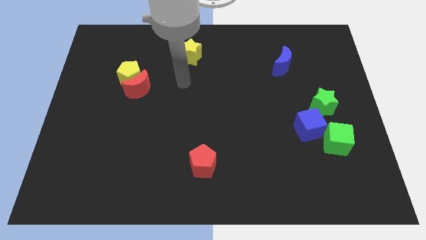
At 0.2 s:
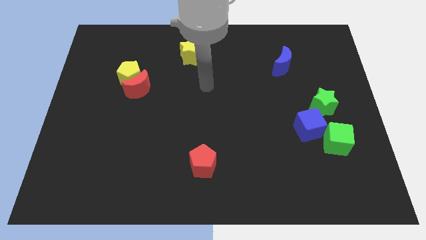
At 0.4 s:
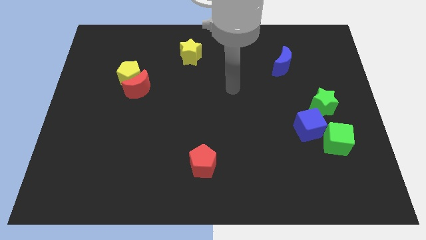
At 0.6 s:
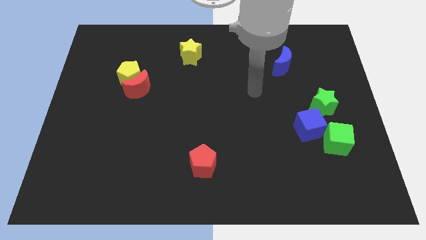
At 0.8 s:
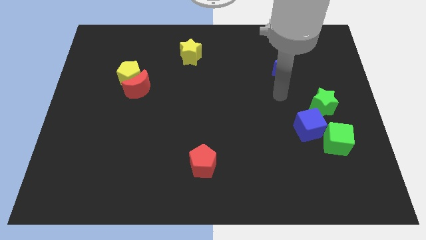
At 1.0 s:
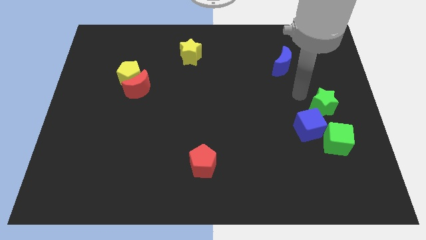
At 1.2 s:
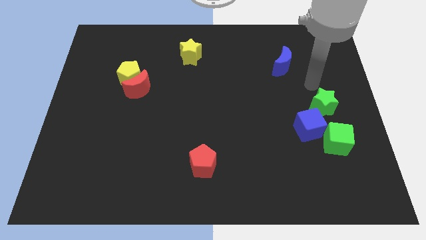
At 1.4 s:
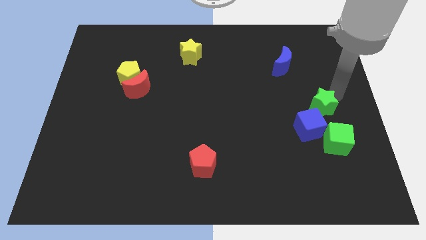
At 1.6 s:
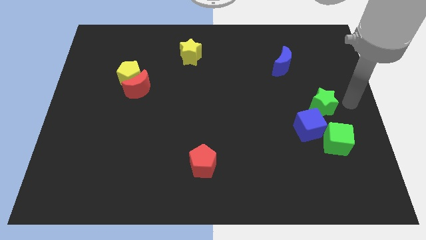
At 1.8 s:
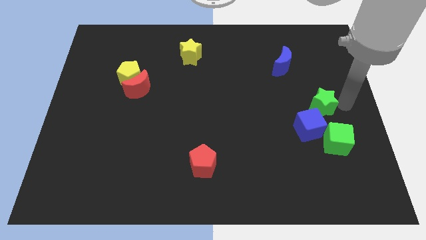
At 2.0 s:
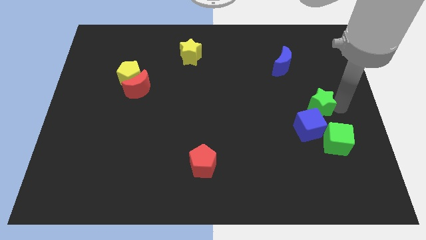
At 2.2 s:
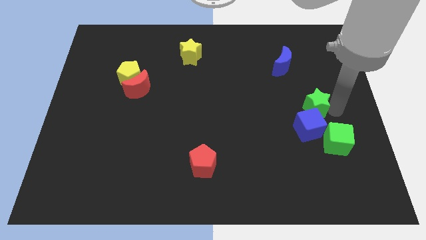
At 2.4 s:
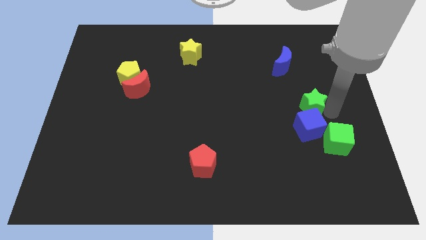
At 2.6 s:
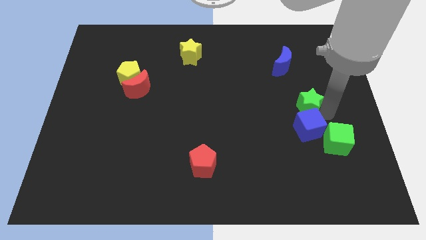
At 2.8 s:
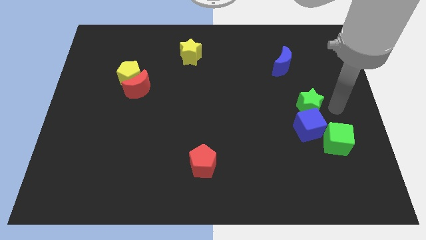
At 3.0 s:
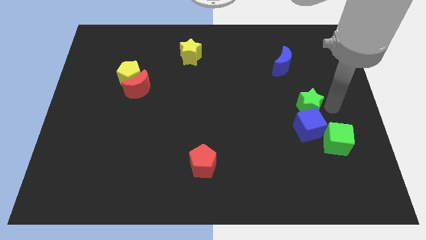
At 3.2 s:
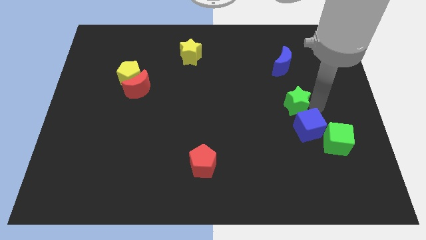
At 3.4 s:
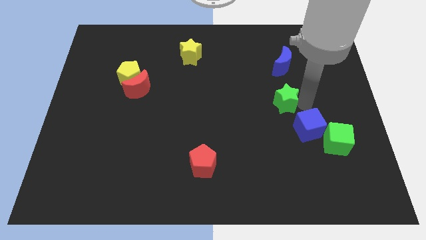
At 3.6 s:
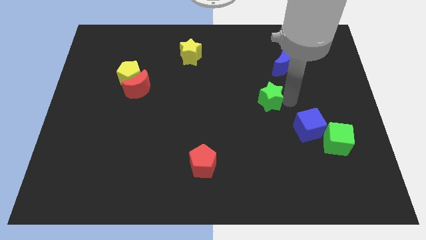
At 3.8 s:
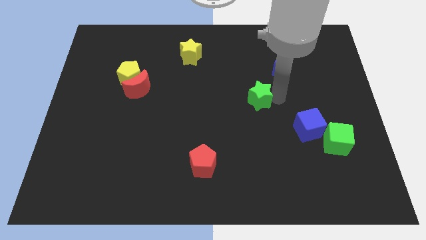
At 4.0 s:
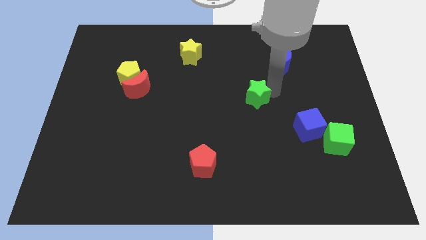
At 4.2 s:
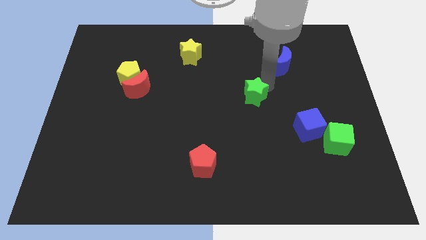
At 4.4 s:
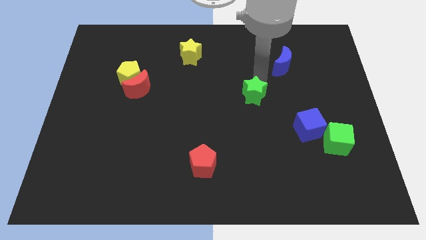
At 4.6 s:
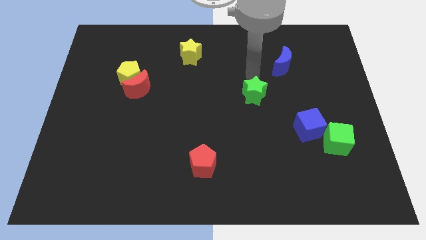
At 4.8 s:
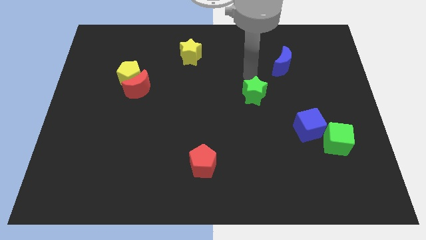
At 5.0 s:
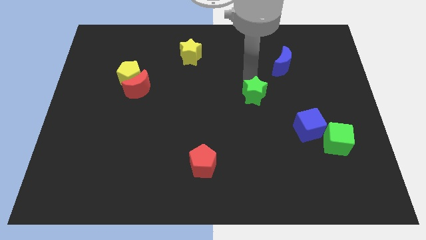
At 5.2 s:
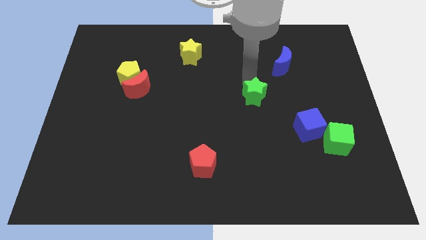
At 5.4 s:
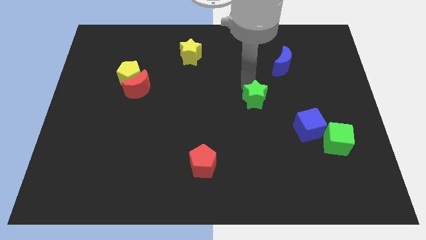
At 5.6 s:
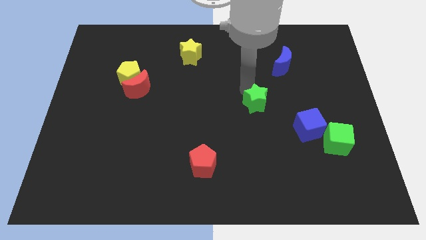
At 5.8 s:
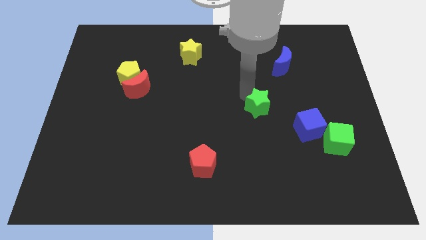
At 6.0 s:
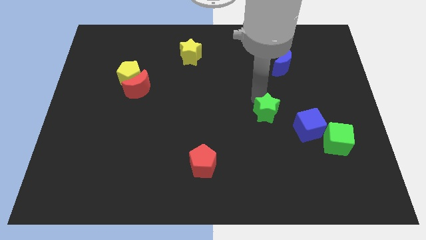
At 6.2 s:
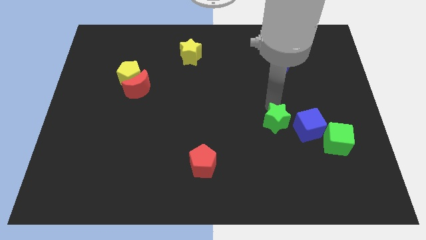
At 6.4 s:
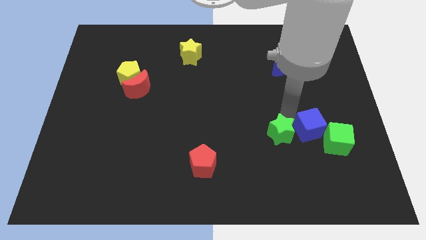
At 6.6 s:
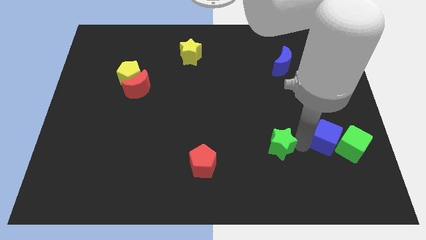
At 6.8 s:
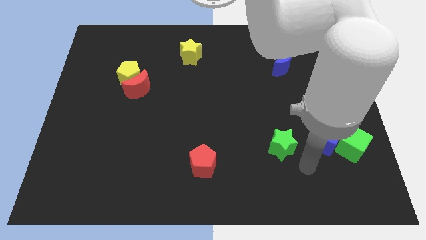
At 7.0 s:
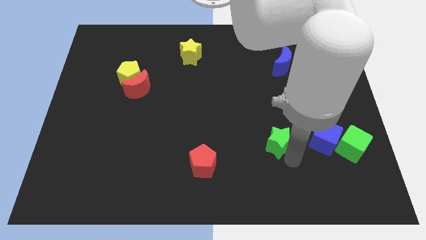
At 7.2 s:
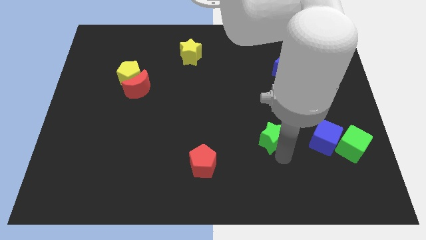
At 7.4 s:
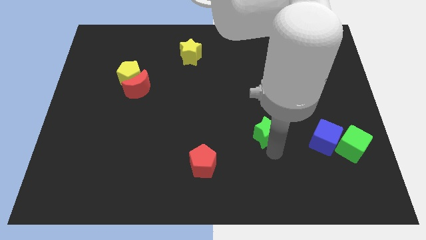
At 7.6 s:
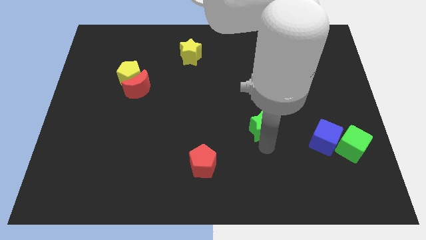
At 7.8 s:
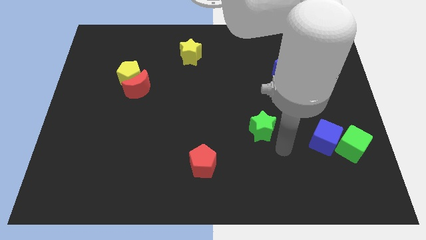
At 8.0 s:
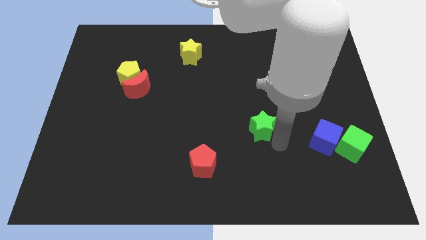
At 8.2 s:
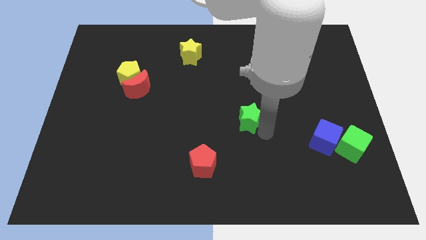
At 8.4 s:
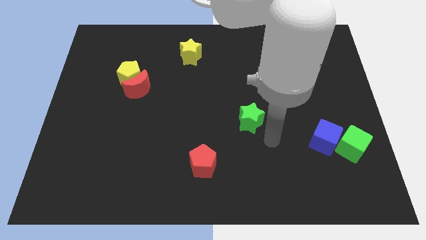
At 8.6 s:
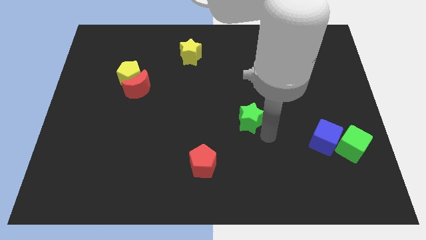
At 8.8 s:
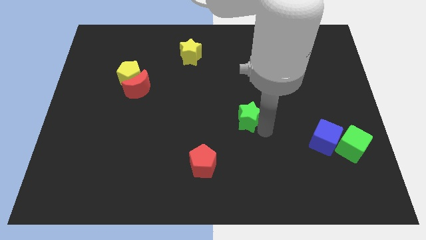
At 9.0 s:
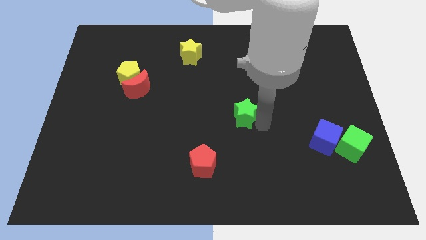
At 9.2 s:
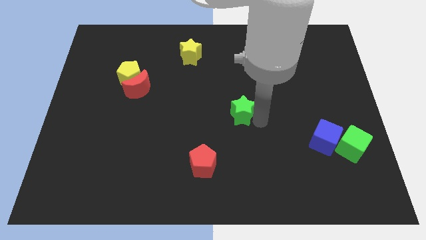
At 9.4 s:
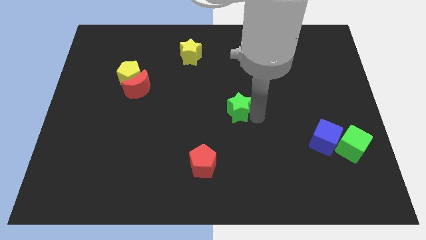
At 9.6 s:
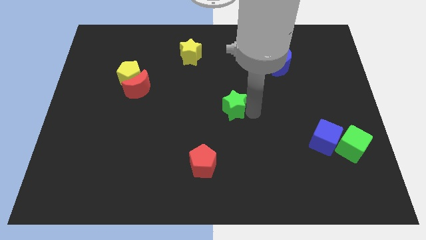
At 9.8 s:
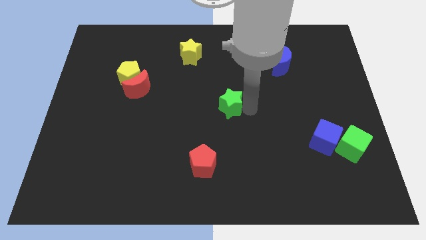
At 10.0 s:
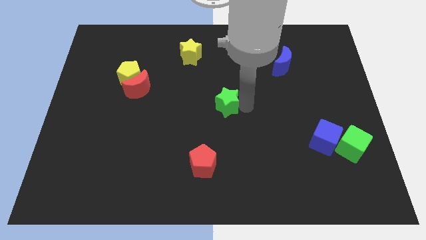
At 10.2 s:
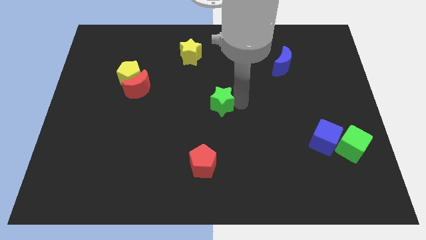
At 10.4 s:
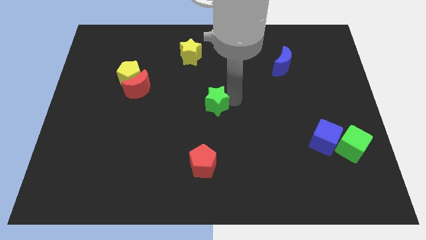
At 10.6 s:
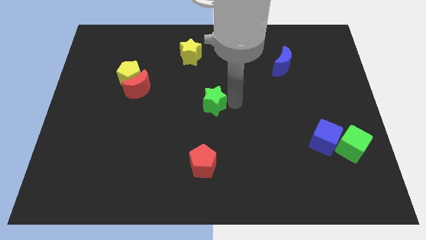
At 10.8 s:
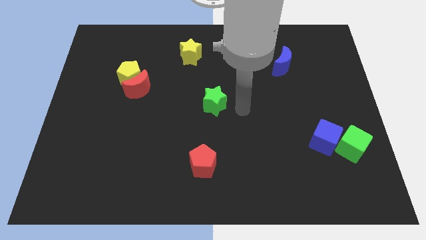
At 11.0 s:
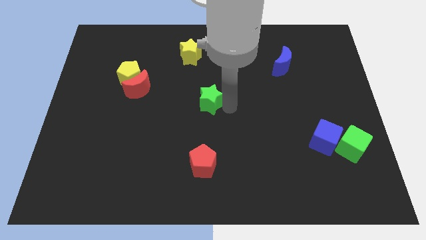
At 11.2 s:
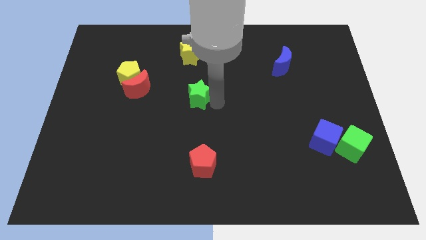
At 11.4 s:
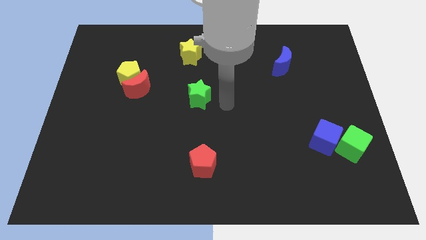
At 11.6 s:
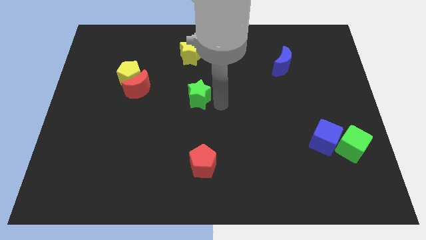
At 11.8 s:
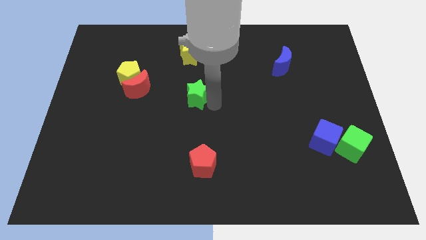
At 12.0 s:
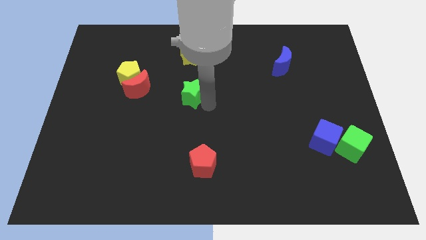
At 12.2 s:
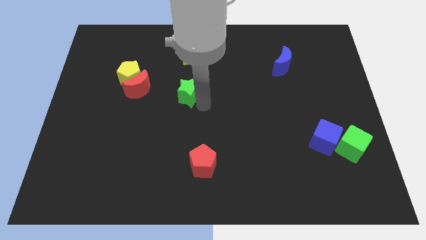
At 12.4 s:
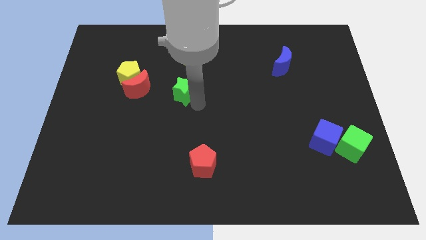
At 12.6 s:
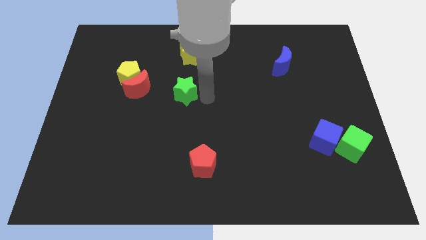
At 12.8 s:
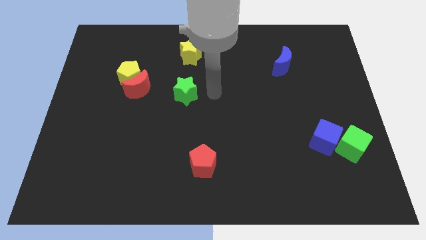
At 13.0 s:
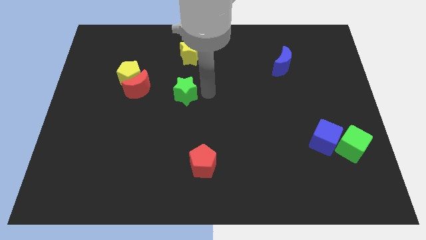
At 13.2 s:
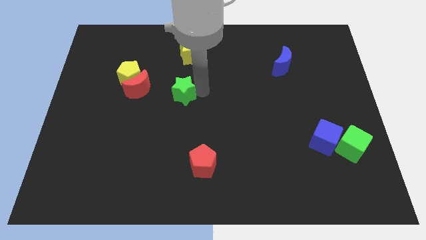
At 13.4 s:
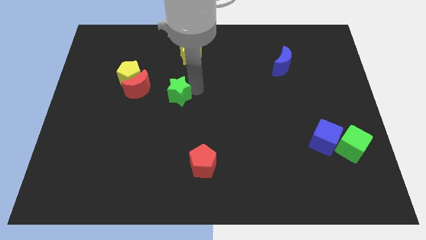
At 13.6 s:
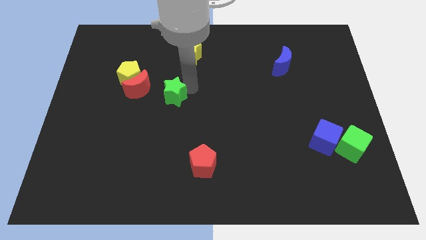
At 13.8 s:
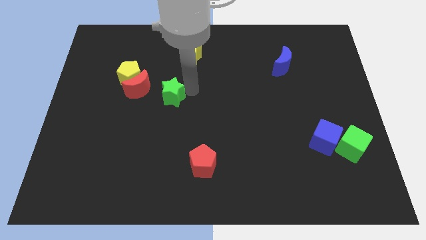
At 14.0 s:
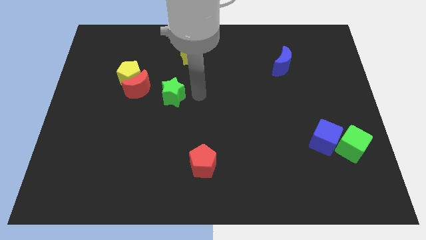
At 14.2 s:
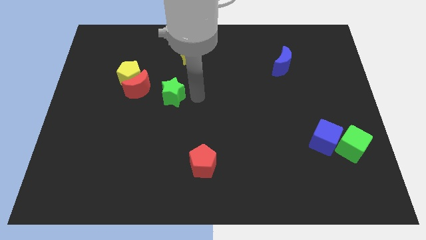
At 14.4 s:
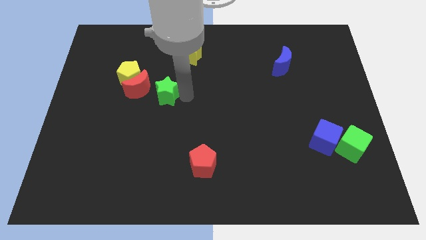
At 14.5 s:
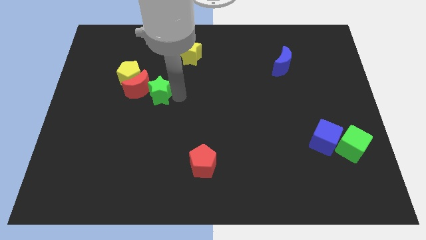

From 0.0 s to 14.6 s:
move the green star to the red moon

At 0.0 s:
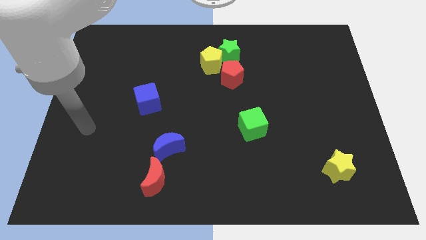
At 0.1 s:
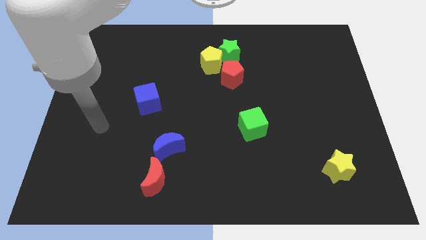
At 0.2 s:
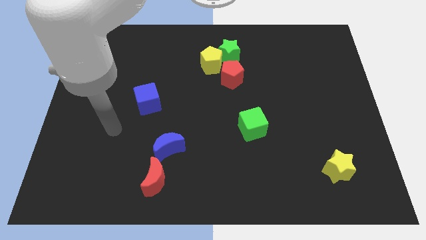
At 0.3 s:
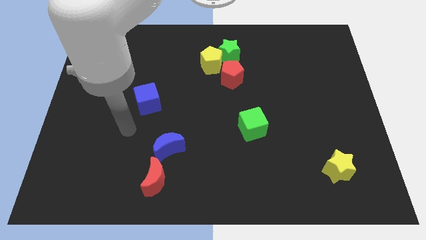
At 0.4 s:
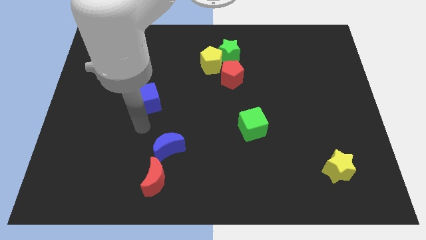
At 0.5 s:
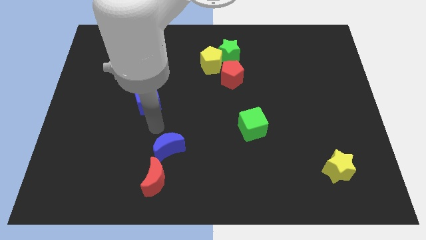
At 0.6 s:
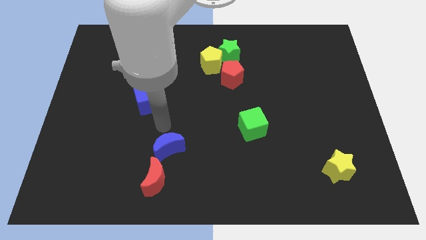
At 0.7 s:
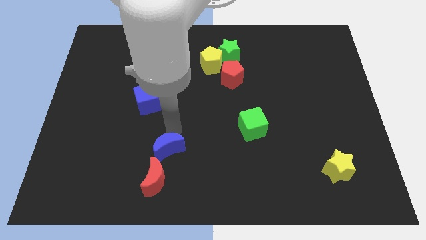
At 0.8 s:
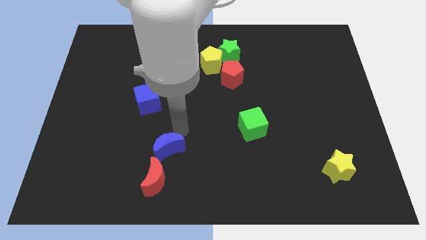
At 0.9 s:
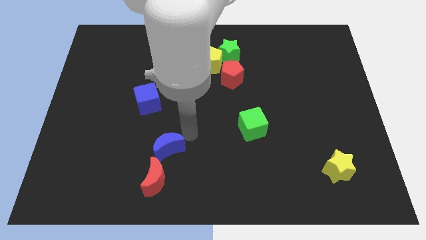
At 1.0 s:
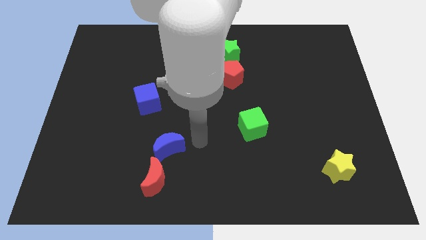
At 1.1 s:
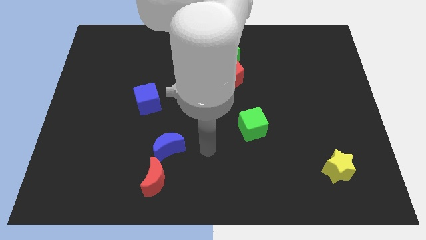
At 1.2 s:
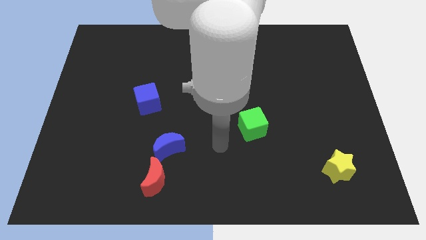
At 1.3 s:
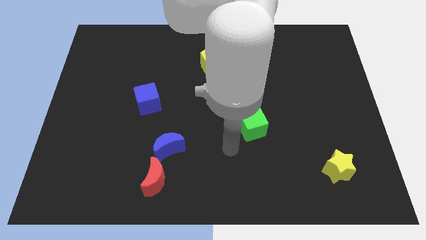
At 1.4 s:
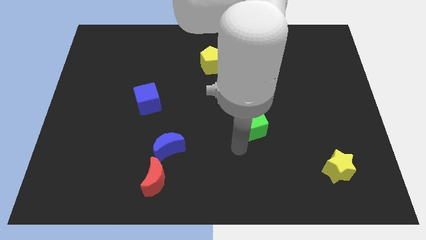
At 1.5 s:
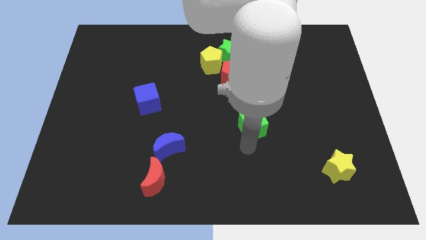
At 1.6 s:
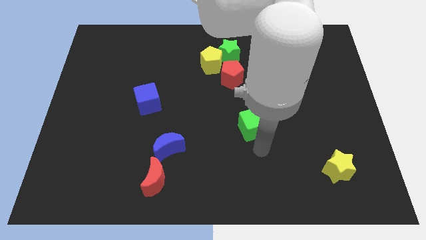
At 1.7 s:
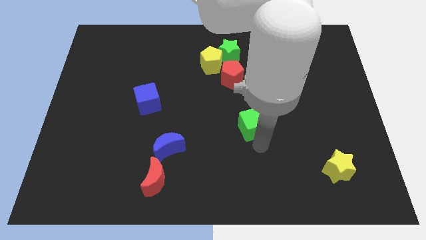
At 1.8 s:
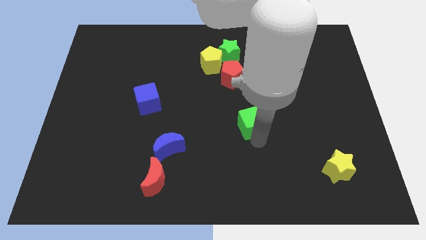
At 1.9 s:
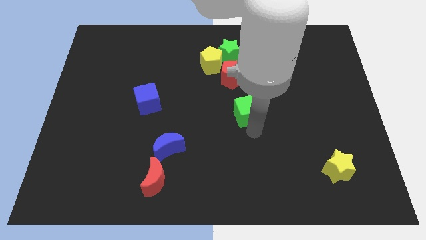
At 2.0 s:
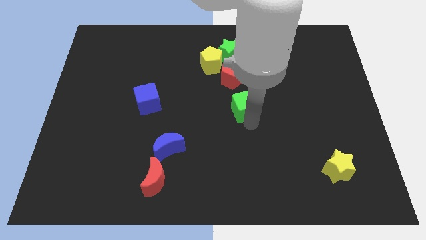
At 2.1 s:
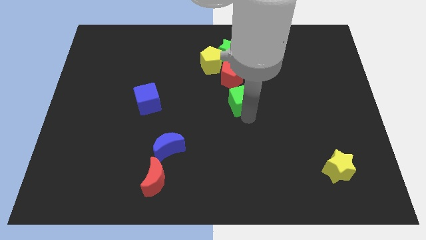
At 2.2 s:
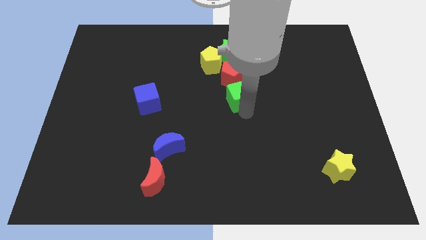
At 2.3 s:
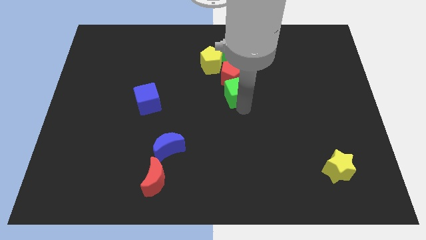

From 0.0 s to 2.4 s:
put the green cube close to the red pentagon
